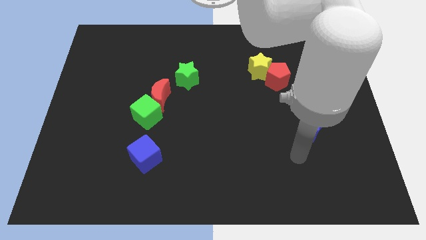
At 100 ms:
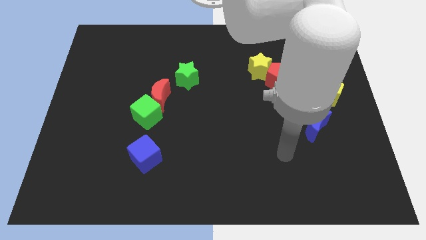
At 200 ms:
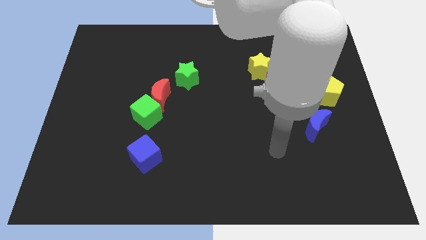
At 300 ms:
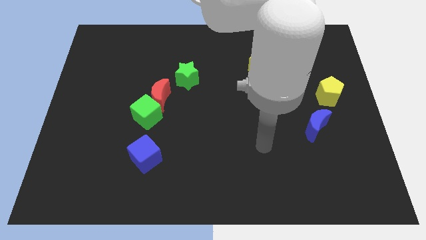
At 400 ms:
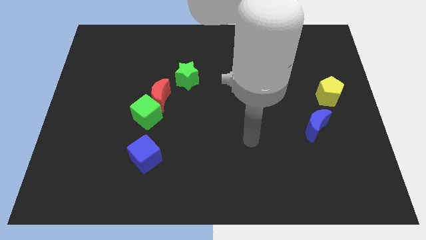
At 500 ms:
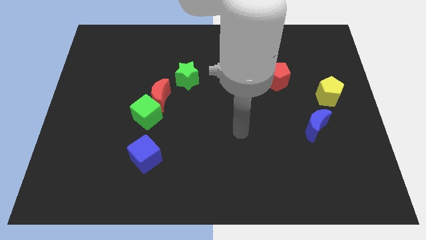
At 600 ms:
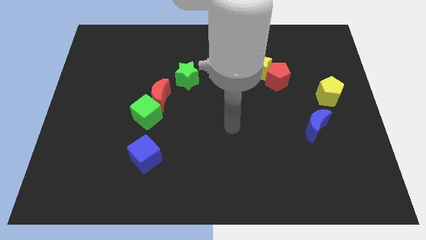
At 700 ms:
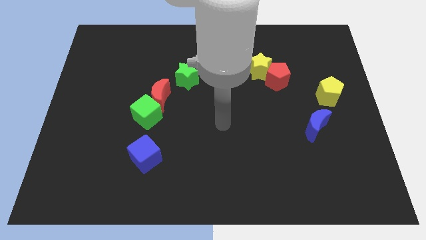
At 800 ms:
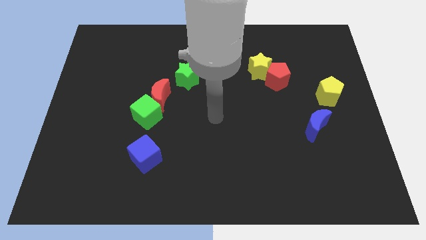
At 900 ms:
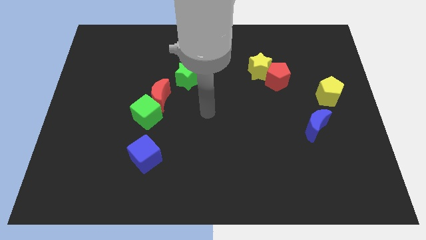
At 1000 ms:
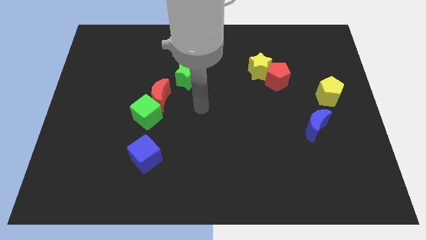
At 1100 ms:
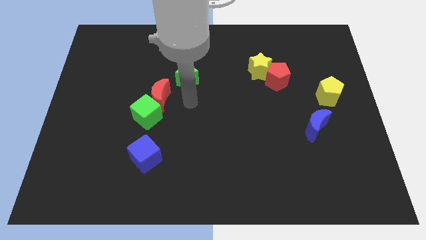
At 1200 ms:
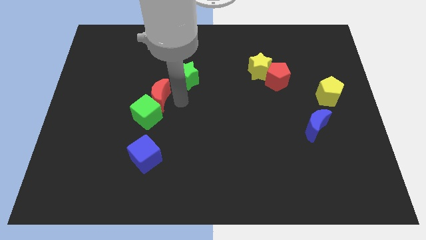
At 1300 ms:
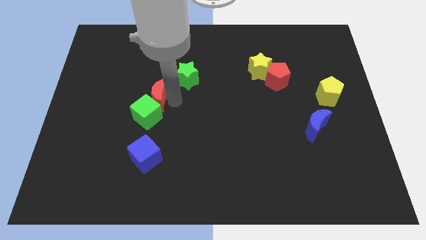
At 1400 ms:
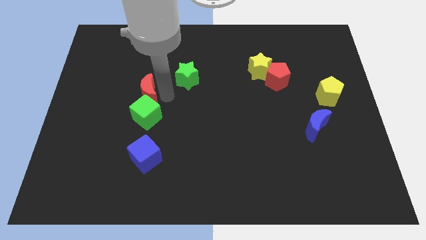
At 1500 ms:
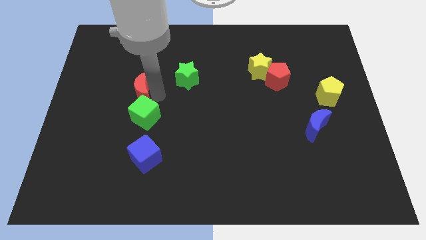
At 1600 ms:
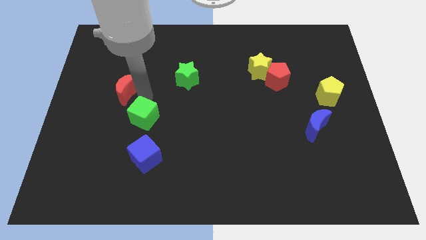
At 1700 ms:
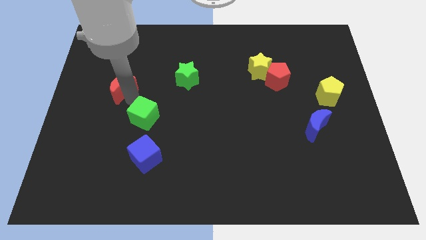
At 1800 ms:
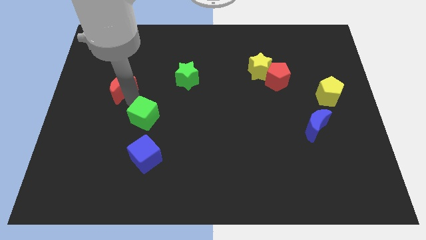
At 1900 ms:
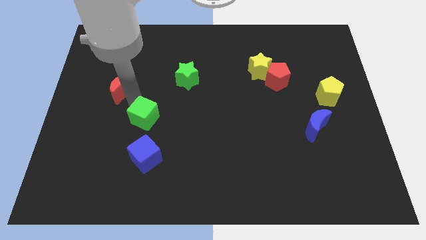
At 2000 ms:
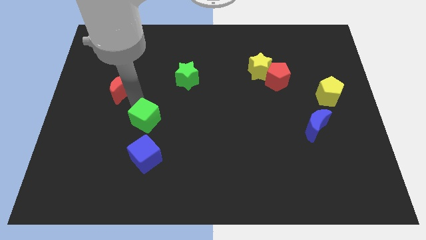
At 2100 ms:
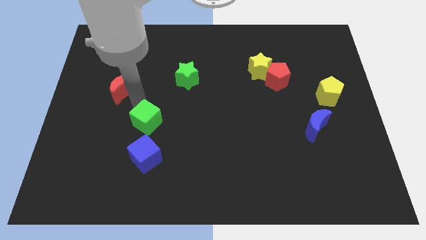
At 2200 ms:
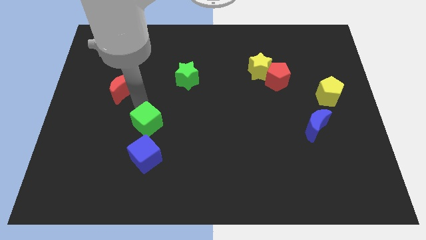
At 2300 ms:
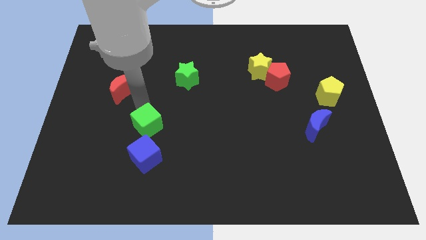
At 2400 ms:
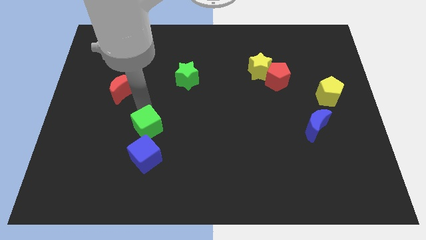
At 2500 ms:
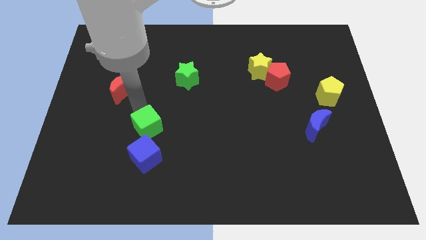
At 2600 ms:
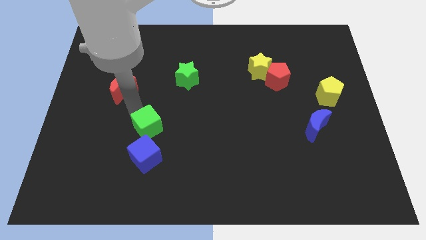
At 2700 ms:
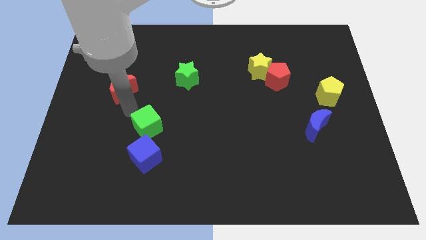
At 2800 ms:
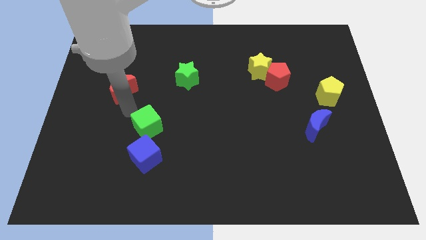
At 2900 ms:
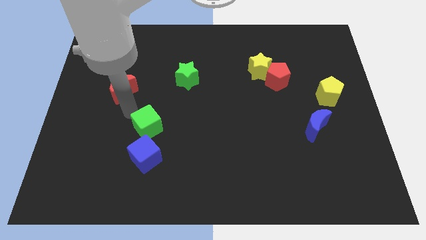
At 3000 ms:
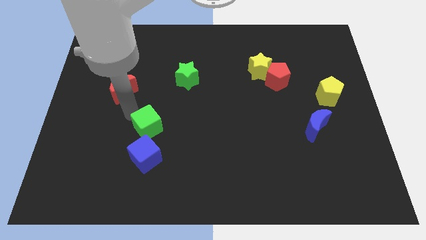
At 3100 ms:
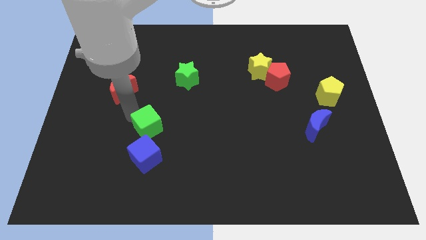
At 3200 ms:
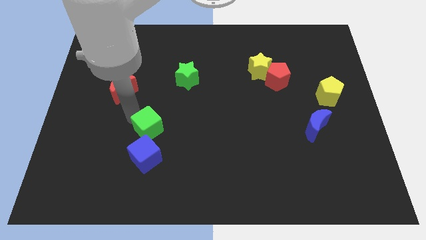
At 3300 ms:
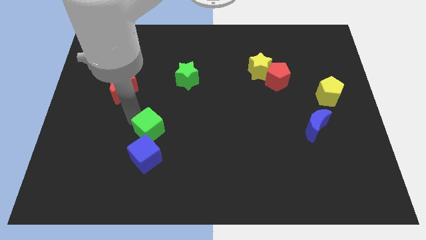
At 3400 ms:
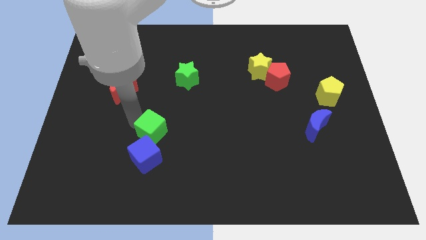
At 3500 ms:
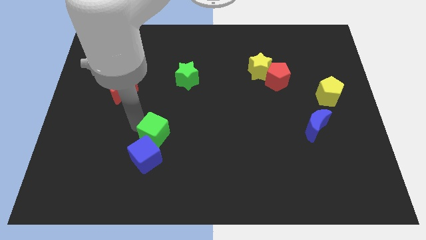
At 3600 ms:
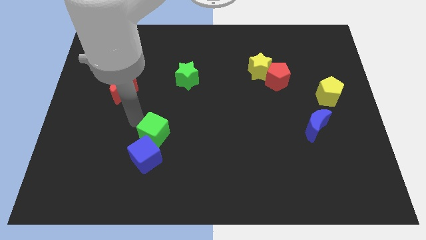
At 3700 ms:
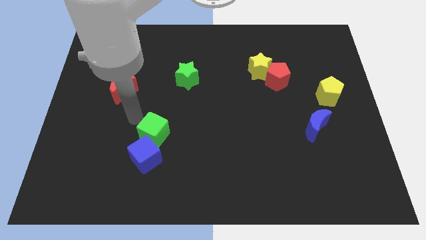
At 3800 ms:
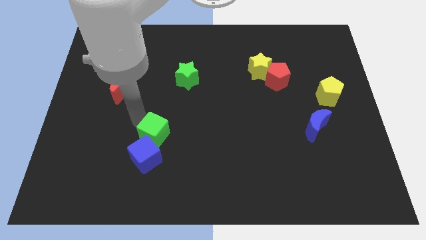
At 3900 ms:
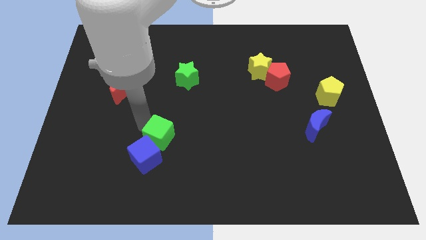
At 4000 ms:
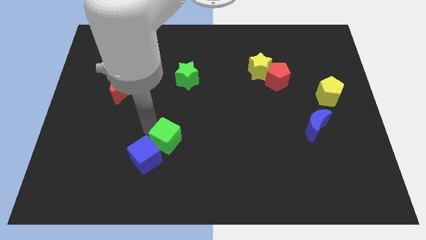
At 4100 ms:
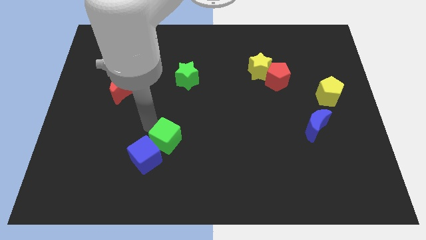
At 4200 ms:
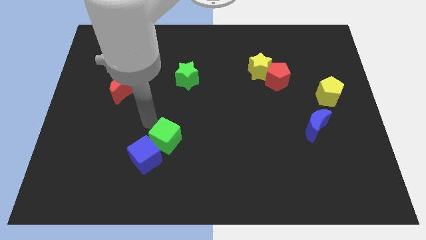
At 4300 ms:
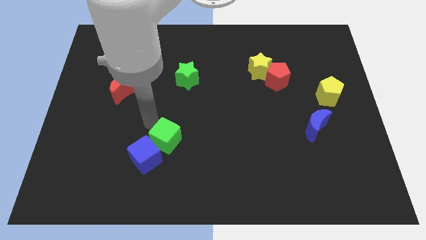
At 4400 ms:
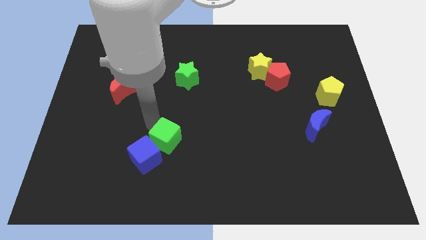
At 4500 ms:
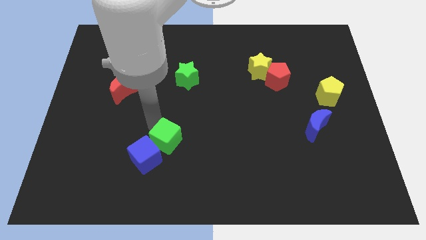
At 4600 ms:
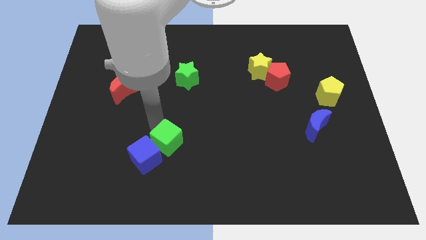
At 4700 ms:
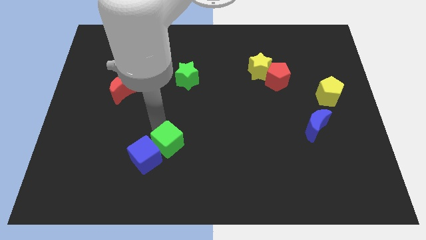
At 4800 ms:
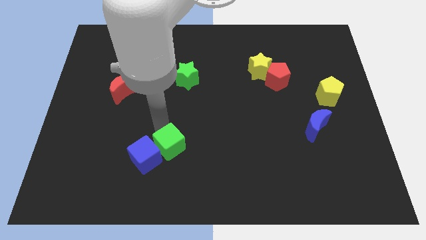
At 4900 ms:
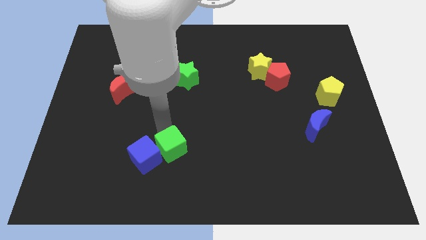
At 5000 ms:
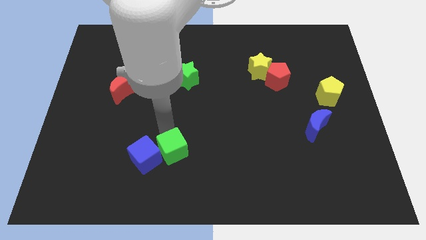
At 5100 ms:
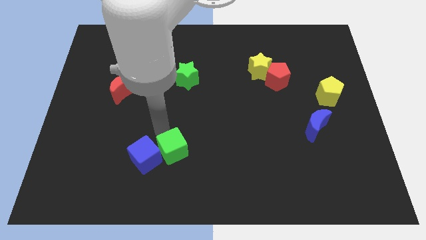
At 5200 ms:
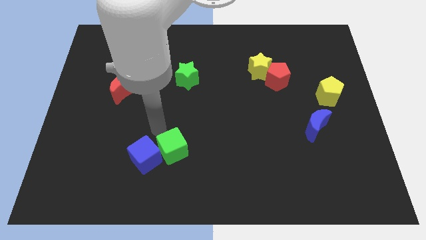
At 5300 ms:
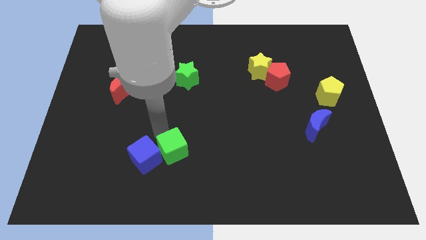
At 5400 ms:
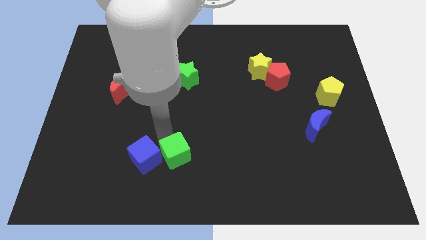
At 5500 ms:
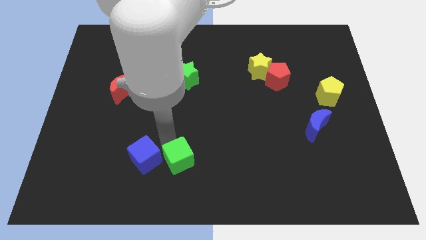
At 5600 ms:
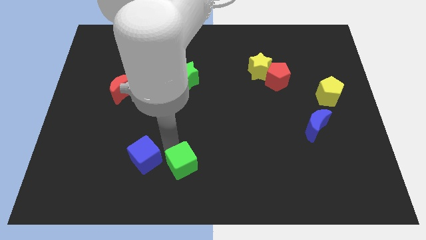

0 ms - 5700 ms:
move the green cube to the bottom
